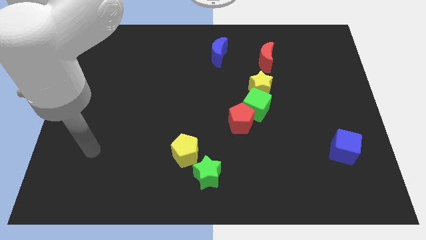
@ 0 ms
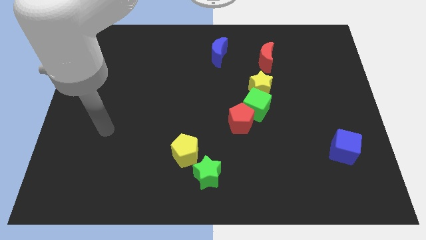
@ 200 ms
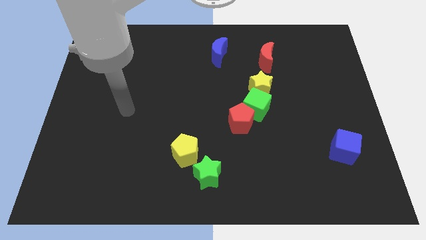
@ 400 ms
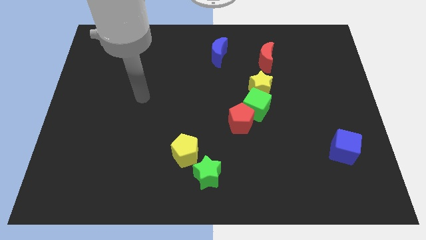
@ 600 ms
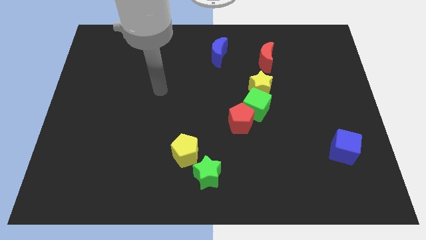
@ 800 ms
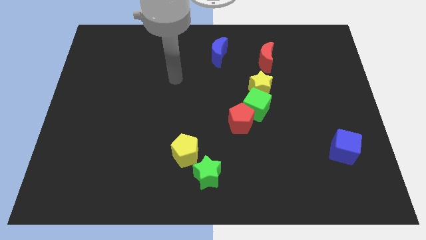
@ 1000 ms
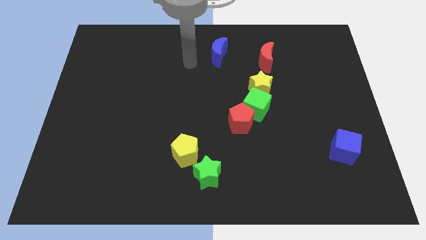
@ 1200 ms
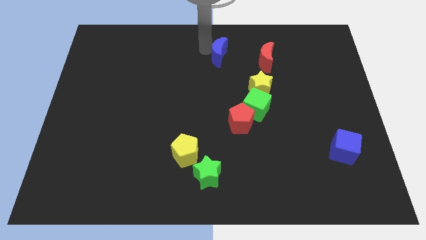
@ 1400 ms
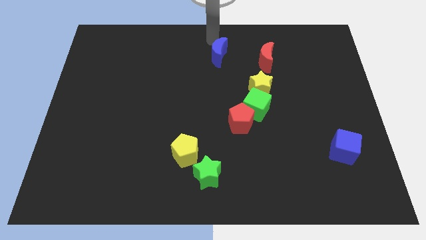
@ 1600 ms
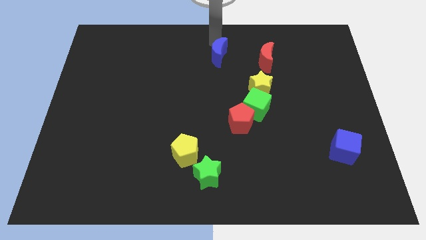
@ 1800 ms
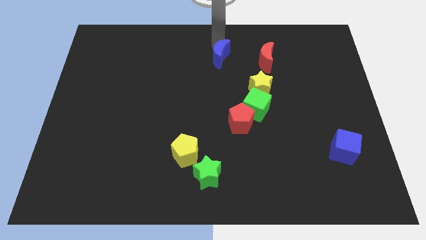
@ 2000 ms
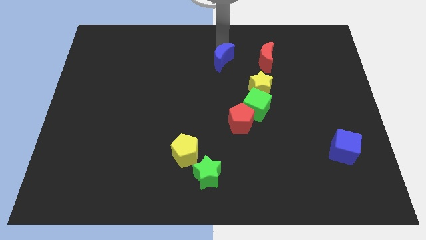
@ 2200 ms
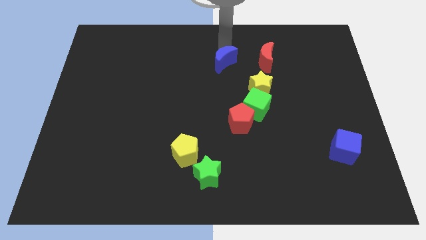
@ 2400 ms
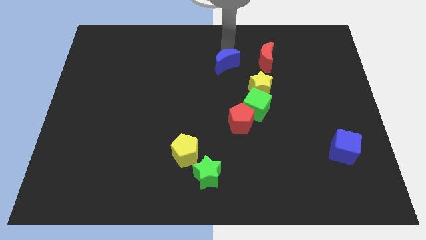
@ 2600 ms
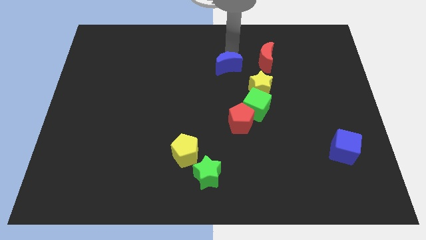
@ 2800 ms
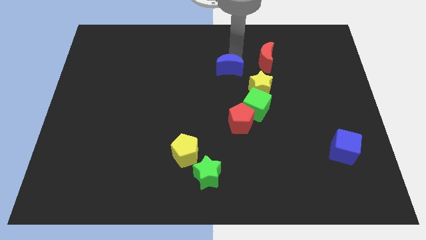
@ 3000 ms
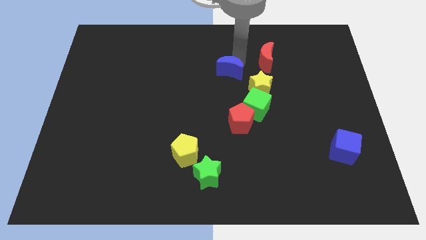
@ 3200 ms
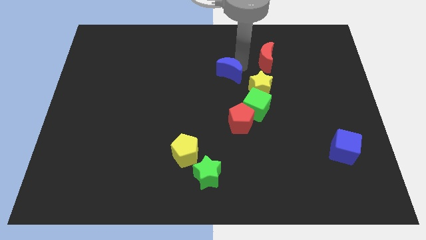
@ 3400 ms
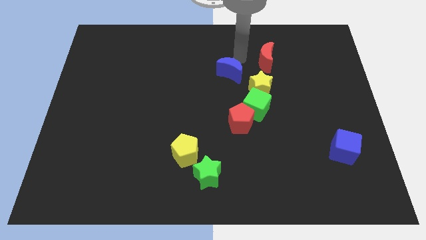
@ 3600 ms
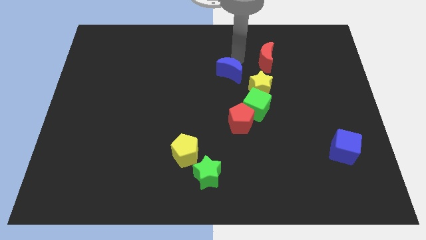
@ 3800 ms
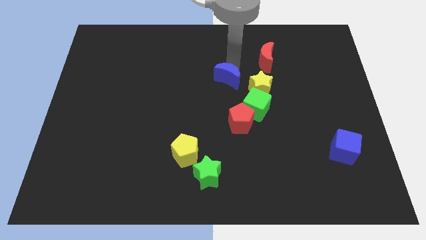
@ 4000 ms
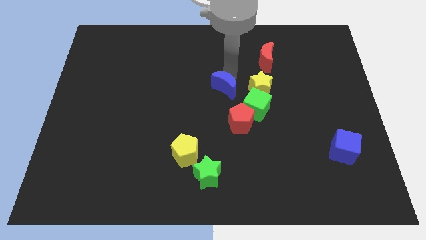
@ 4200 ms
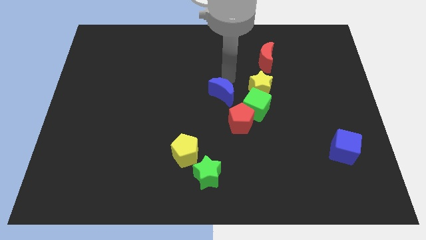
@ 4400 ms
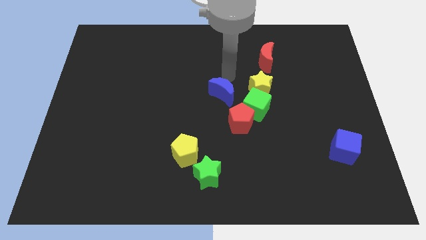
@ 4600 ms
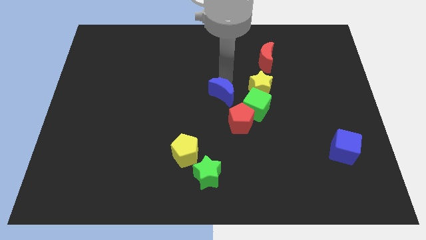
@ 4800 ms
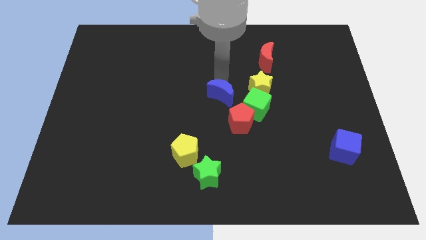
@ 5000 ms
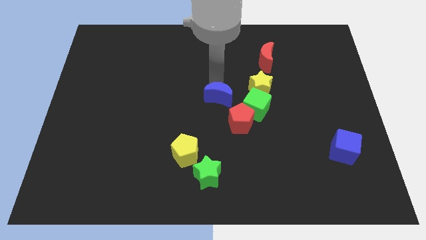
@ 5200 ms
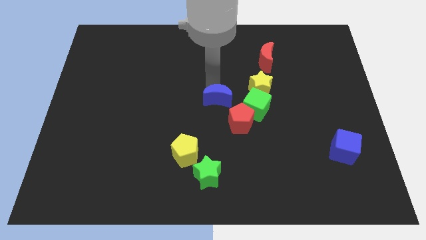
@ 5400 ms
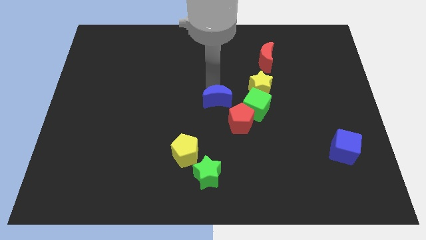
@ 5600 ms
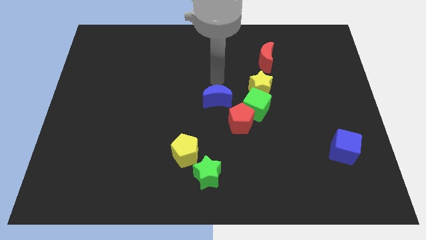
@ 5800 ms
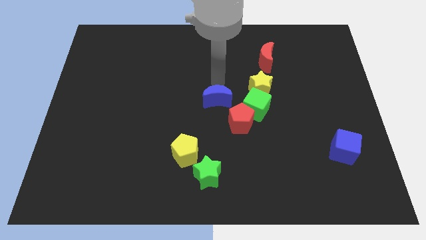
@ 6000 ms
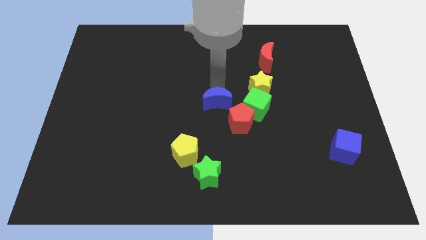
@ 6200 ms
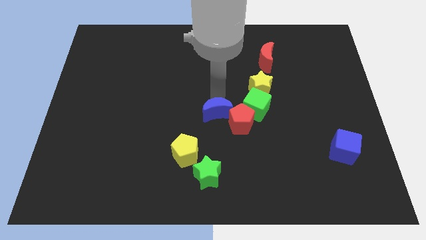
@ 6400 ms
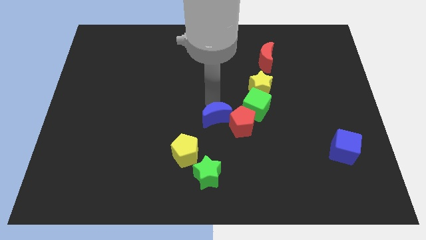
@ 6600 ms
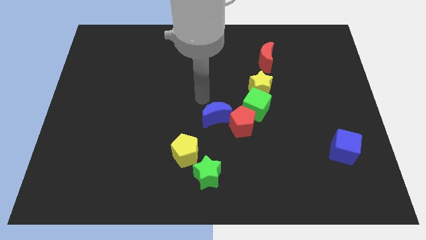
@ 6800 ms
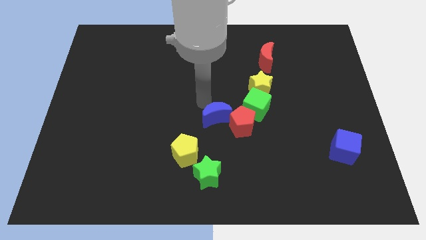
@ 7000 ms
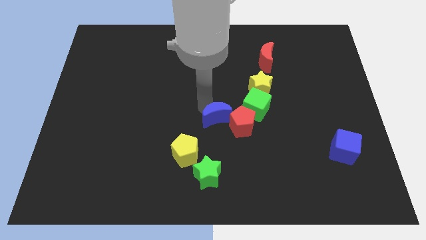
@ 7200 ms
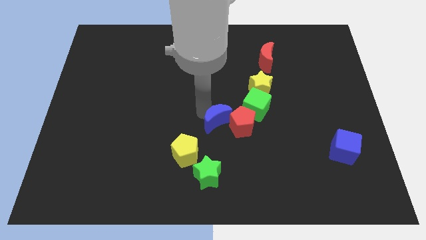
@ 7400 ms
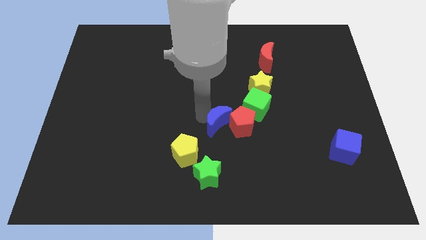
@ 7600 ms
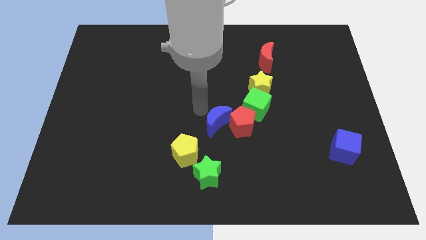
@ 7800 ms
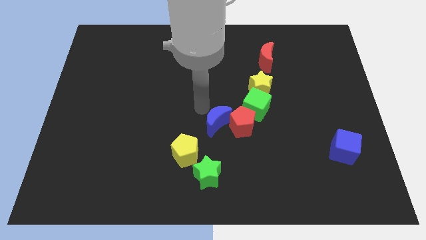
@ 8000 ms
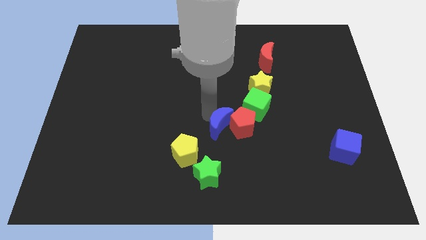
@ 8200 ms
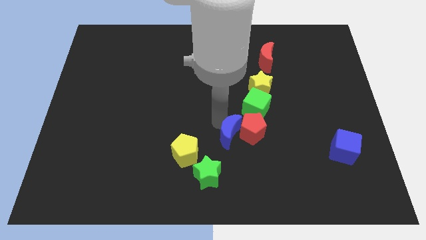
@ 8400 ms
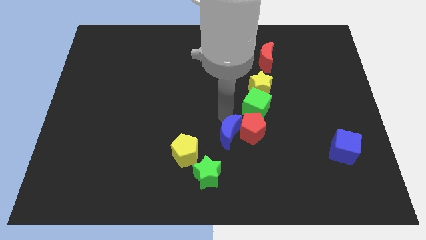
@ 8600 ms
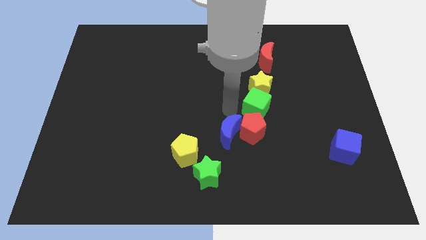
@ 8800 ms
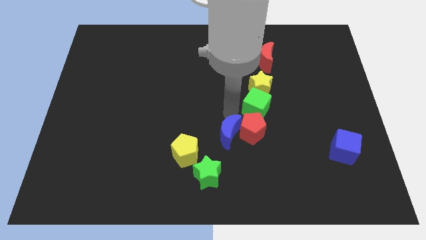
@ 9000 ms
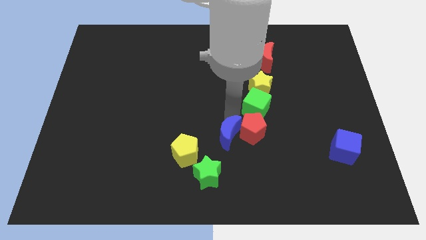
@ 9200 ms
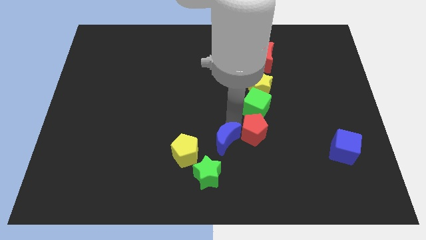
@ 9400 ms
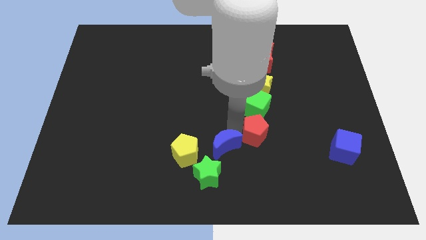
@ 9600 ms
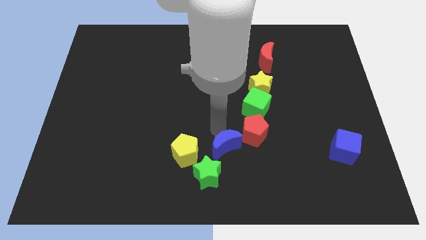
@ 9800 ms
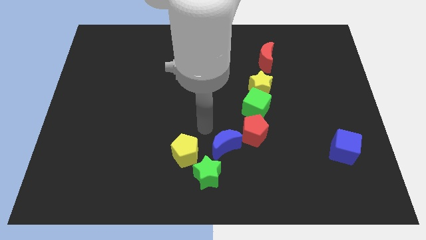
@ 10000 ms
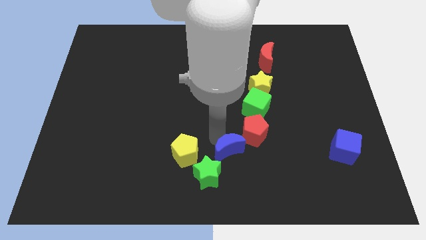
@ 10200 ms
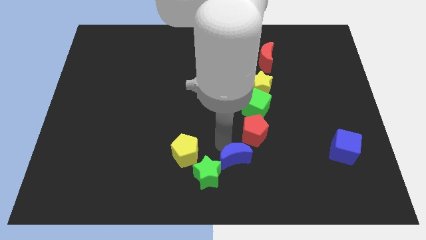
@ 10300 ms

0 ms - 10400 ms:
push the blue moon right of the green star
